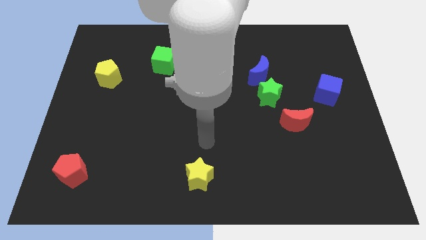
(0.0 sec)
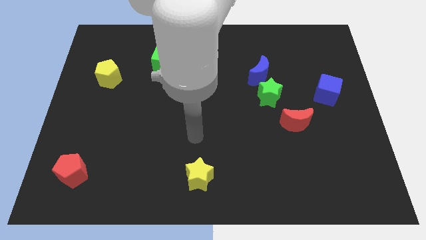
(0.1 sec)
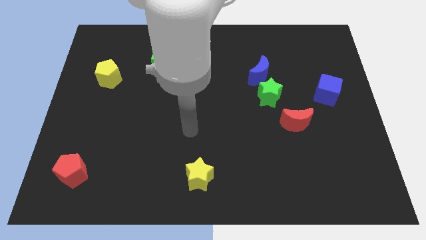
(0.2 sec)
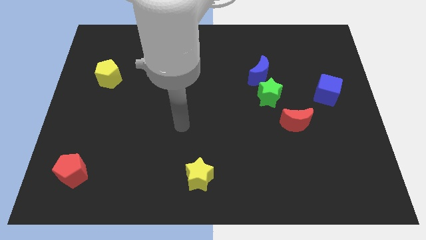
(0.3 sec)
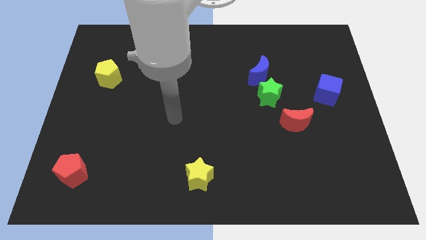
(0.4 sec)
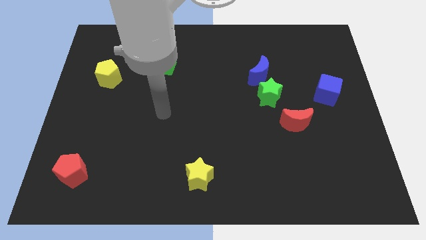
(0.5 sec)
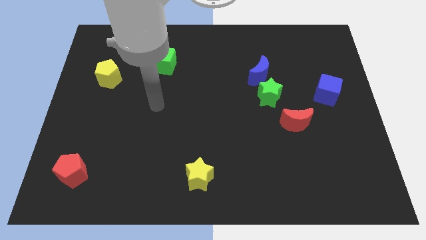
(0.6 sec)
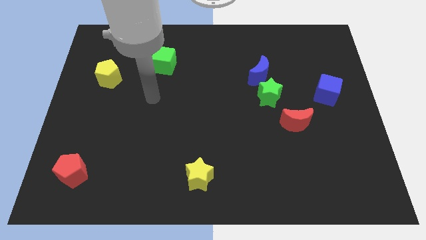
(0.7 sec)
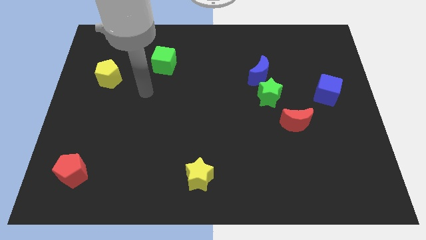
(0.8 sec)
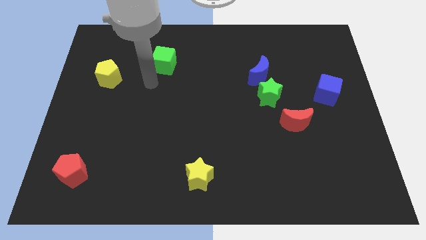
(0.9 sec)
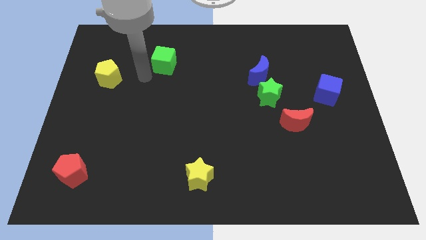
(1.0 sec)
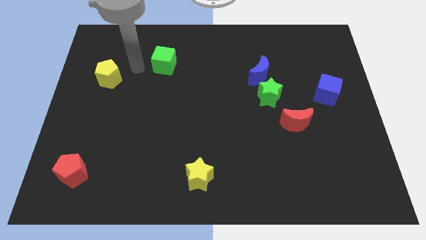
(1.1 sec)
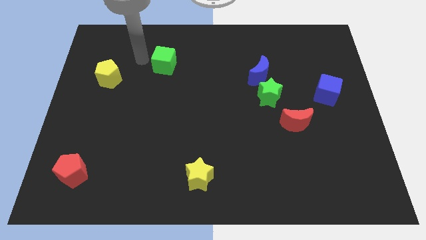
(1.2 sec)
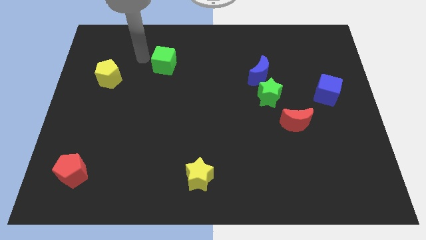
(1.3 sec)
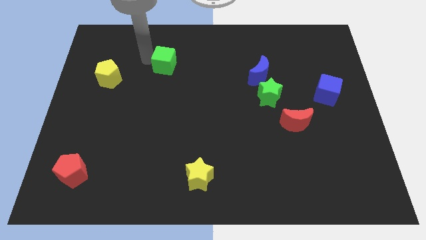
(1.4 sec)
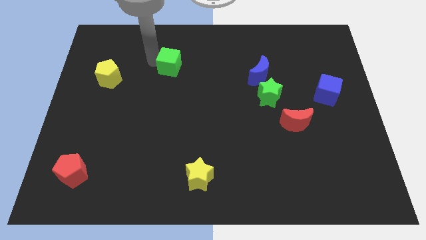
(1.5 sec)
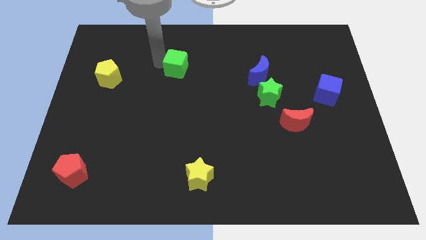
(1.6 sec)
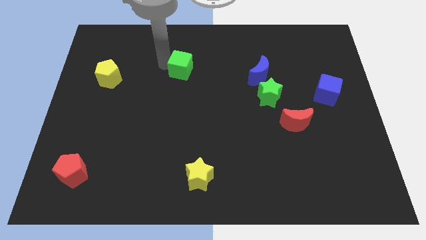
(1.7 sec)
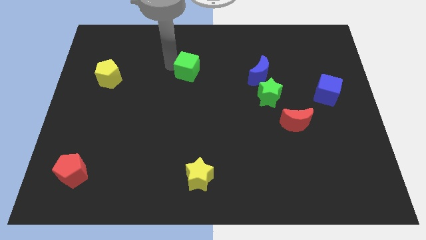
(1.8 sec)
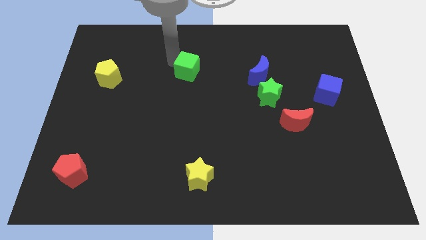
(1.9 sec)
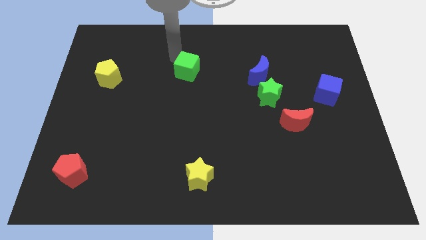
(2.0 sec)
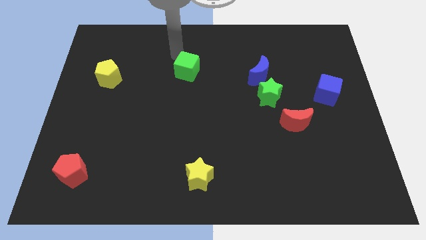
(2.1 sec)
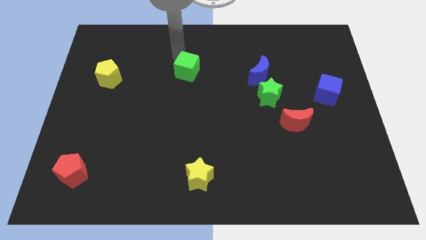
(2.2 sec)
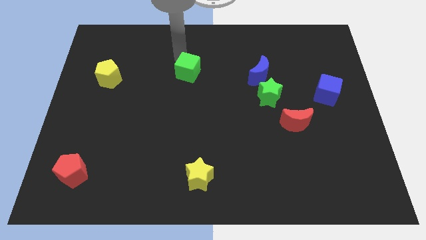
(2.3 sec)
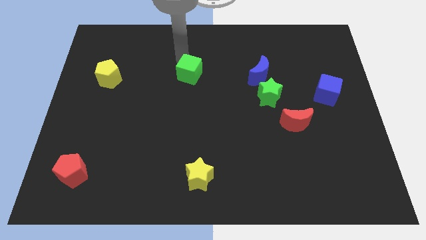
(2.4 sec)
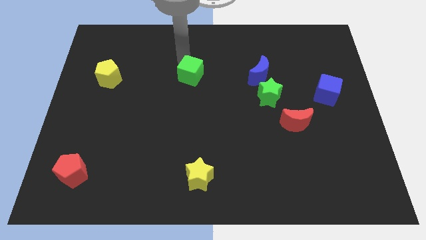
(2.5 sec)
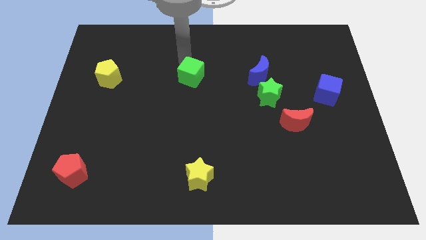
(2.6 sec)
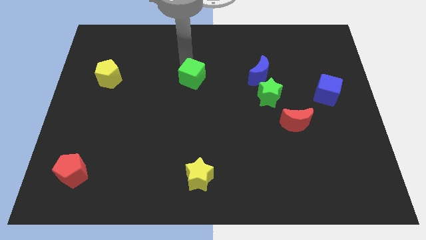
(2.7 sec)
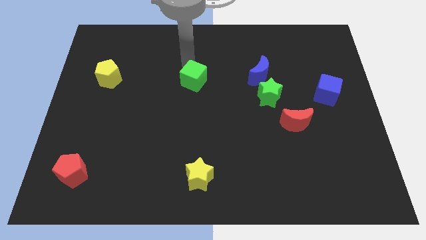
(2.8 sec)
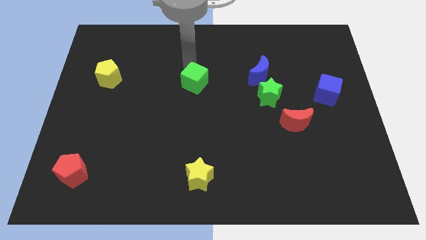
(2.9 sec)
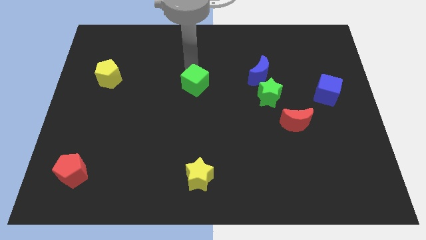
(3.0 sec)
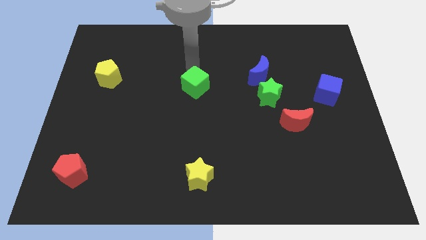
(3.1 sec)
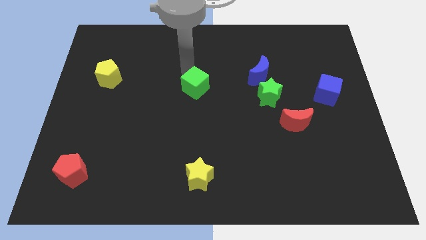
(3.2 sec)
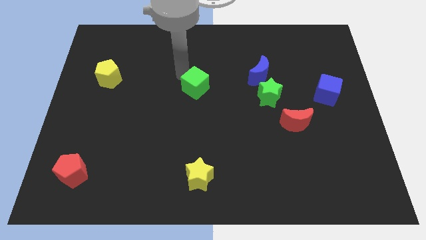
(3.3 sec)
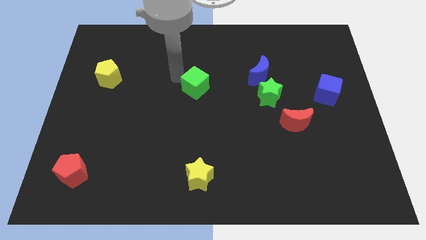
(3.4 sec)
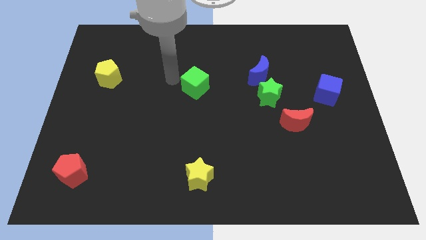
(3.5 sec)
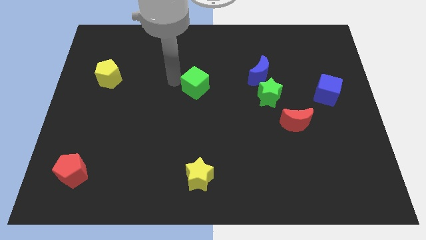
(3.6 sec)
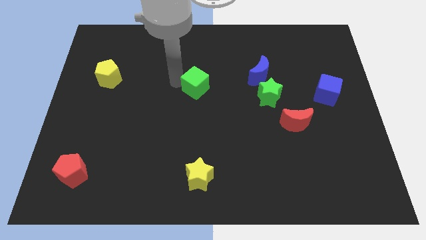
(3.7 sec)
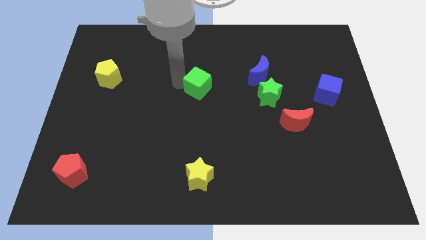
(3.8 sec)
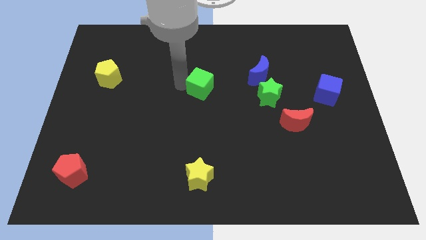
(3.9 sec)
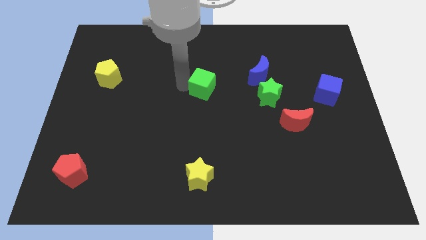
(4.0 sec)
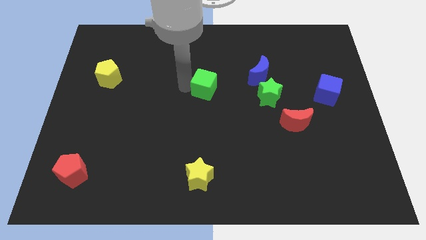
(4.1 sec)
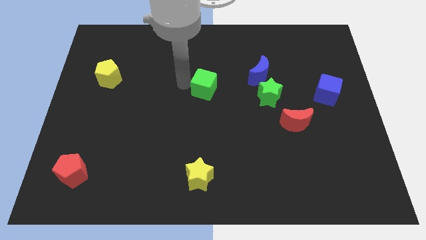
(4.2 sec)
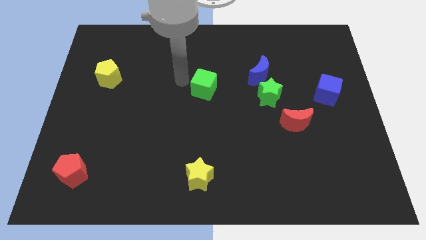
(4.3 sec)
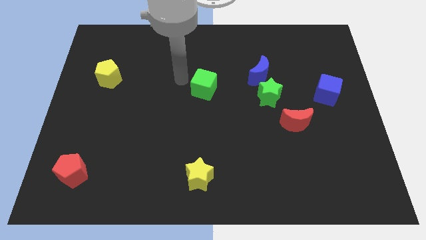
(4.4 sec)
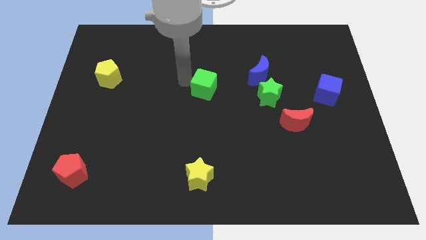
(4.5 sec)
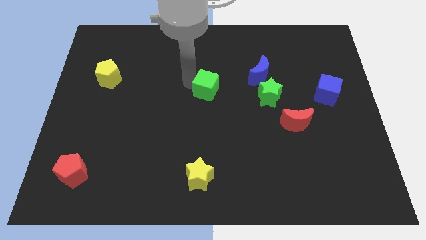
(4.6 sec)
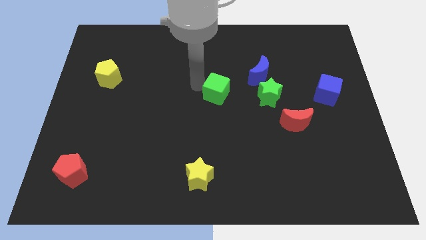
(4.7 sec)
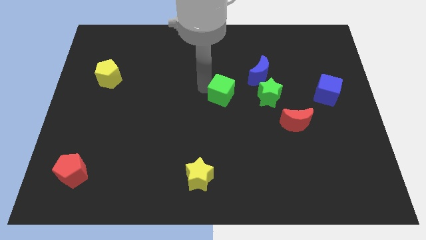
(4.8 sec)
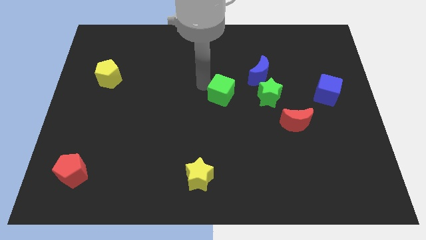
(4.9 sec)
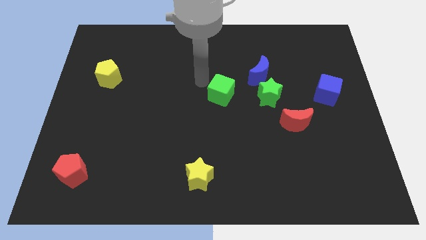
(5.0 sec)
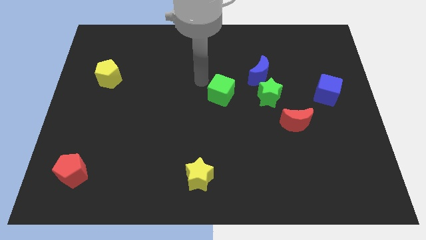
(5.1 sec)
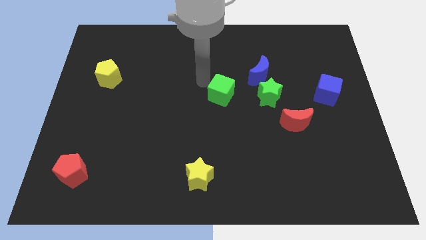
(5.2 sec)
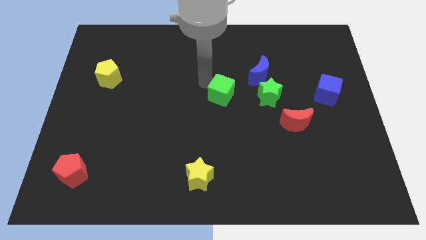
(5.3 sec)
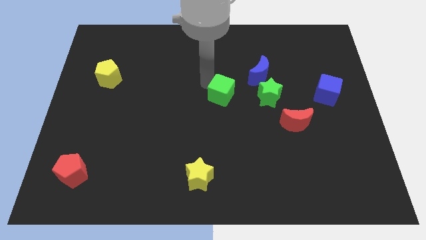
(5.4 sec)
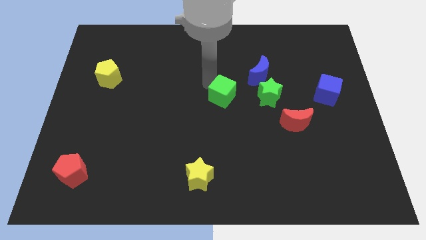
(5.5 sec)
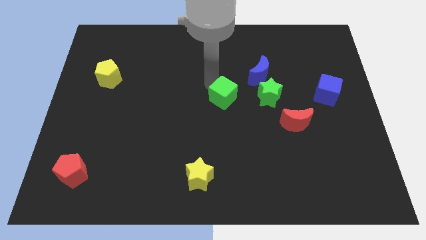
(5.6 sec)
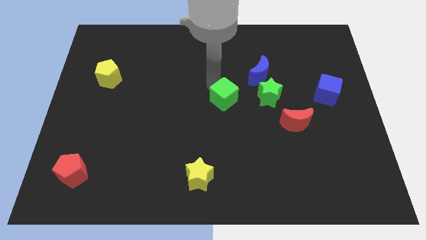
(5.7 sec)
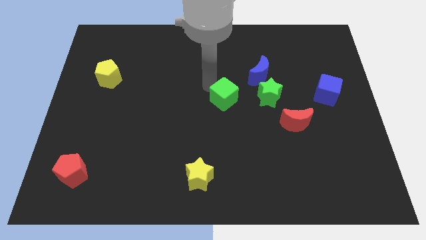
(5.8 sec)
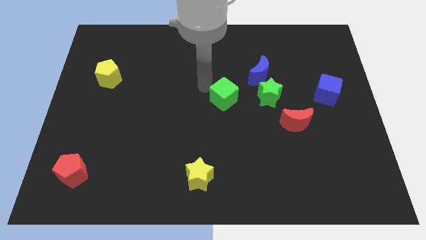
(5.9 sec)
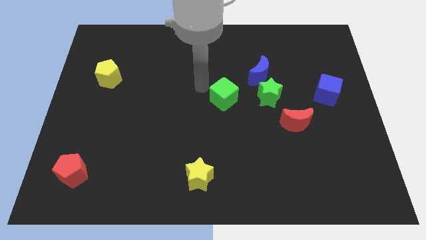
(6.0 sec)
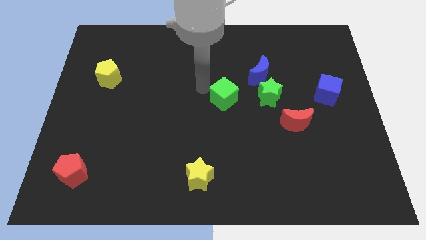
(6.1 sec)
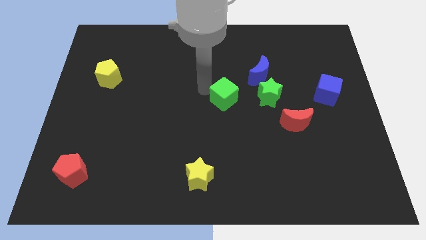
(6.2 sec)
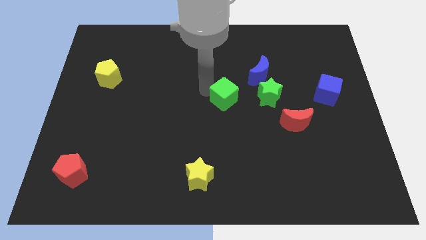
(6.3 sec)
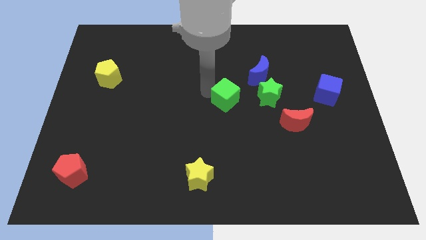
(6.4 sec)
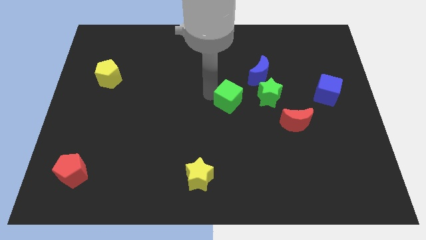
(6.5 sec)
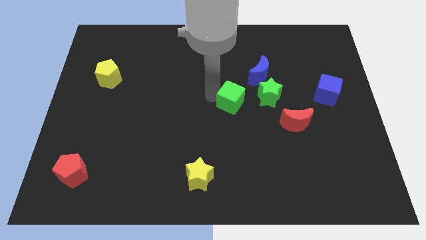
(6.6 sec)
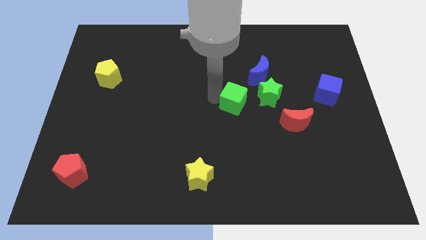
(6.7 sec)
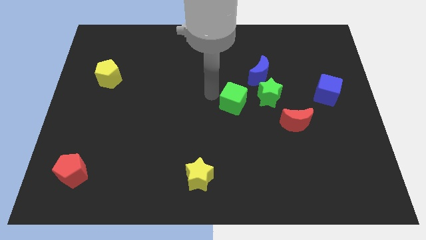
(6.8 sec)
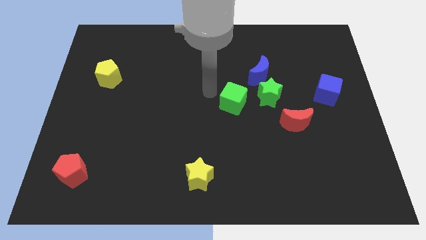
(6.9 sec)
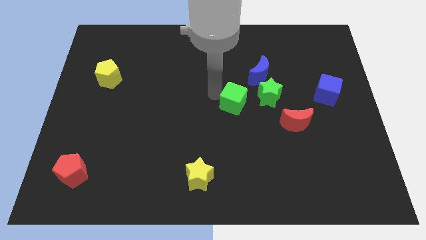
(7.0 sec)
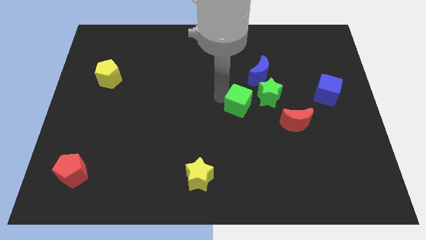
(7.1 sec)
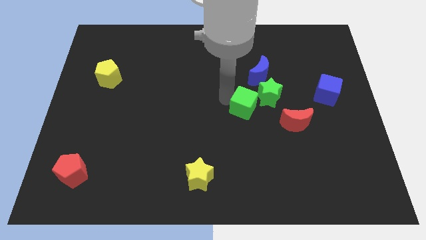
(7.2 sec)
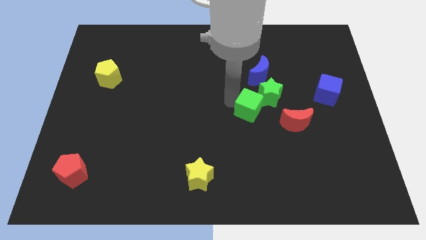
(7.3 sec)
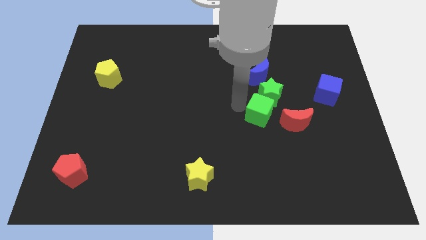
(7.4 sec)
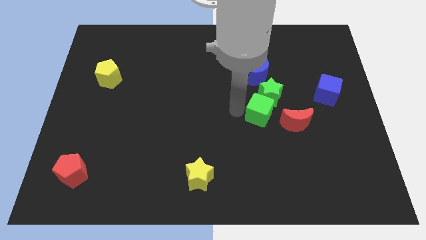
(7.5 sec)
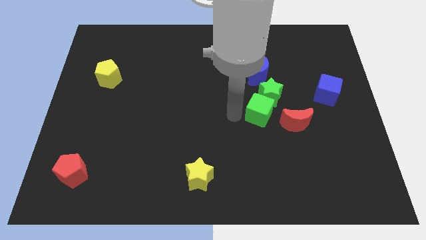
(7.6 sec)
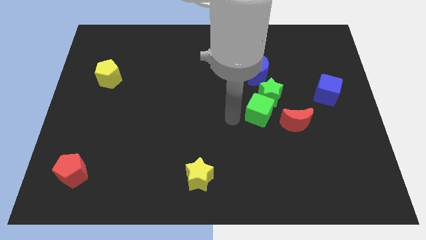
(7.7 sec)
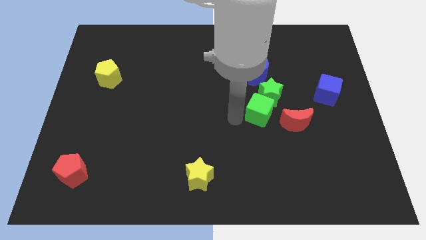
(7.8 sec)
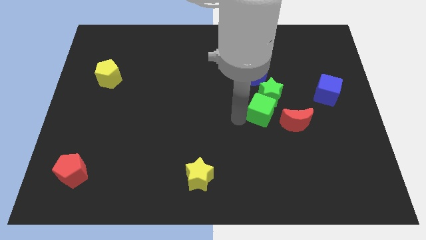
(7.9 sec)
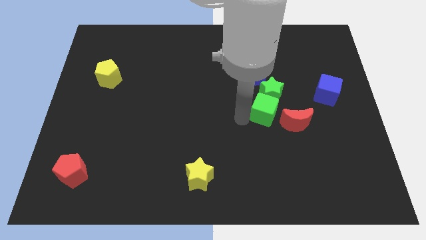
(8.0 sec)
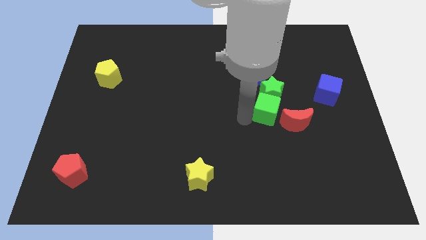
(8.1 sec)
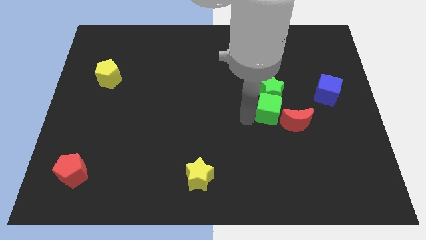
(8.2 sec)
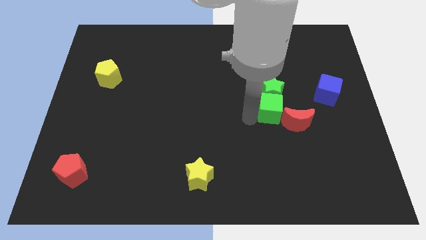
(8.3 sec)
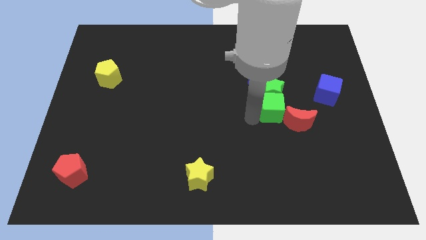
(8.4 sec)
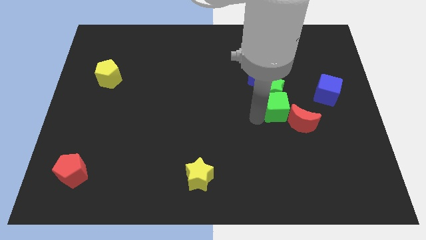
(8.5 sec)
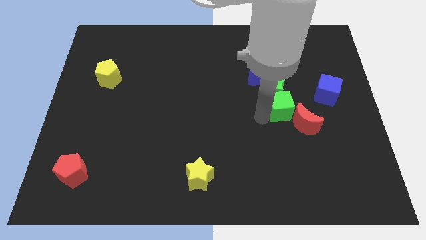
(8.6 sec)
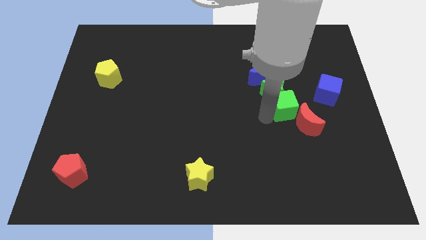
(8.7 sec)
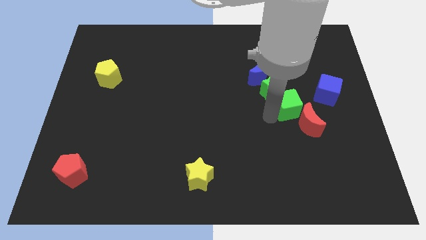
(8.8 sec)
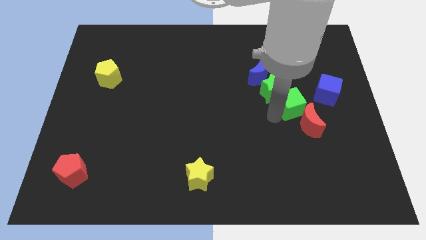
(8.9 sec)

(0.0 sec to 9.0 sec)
move the green cube to the right side of the green star
